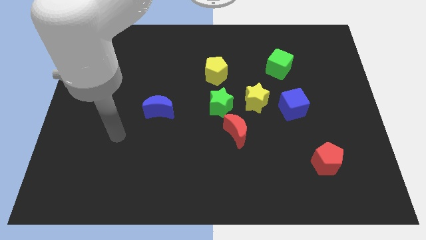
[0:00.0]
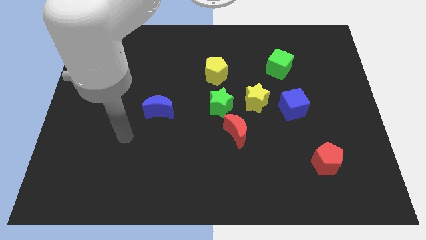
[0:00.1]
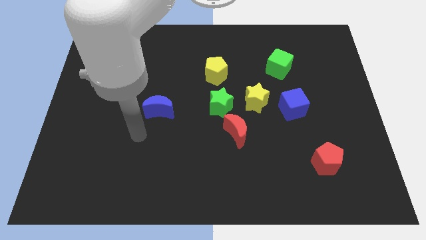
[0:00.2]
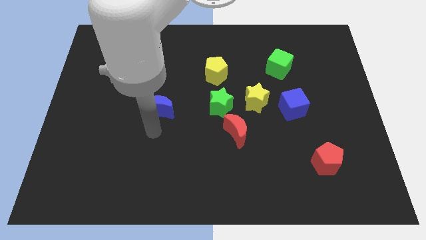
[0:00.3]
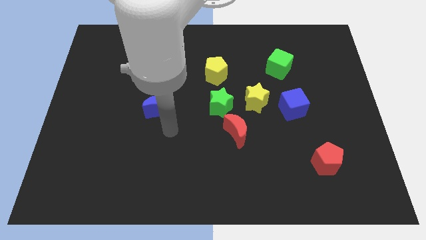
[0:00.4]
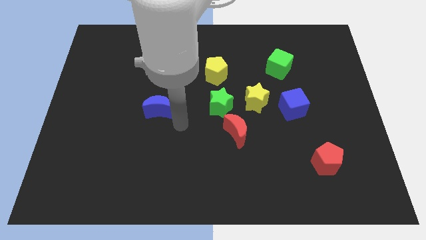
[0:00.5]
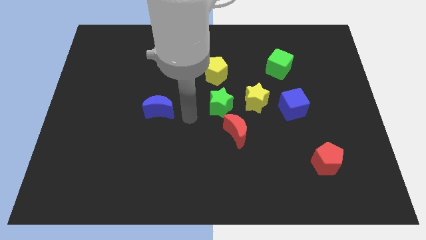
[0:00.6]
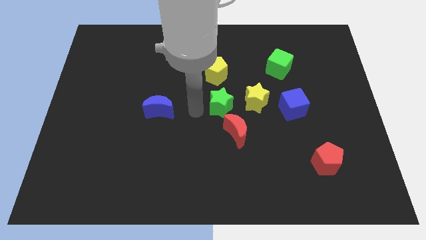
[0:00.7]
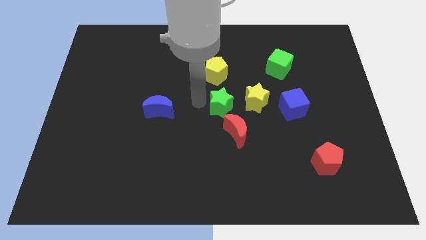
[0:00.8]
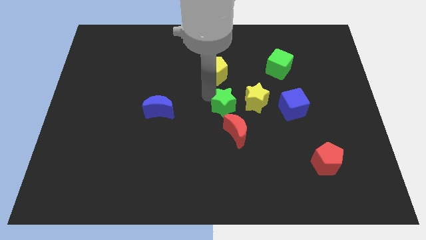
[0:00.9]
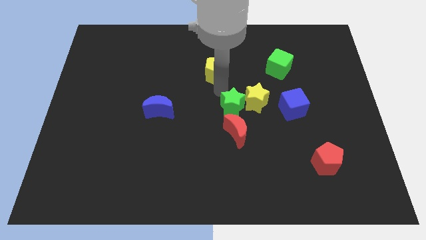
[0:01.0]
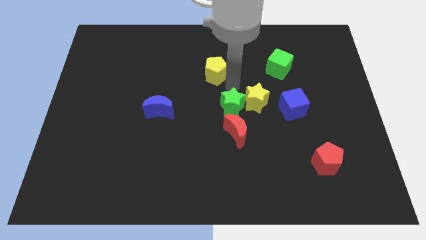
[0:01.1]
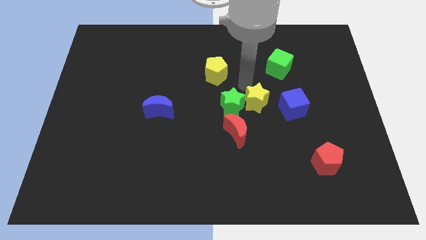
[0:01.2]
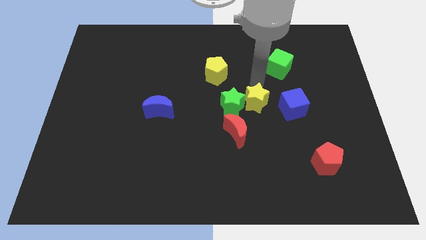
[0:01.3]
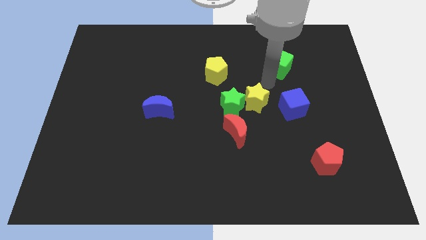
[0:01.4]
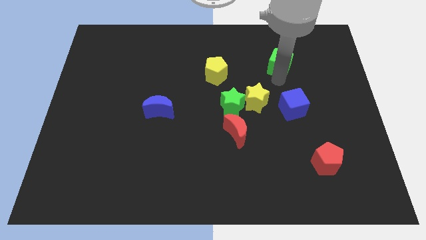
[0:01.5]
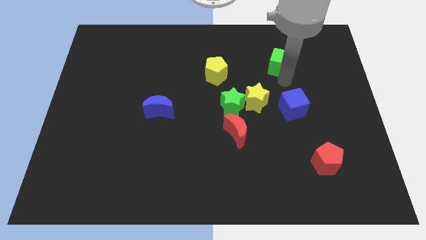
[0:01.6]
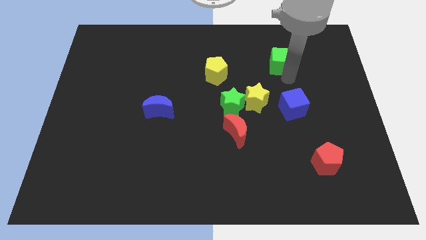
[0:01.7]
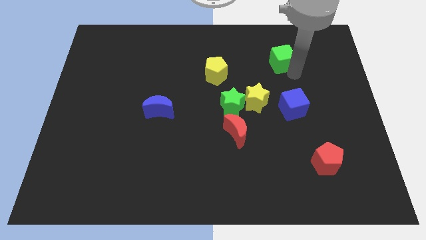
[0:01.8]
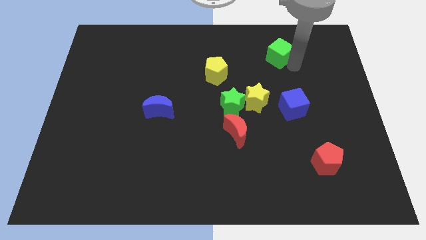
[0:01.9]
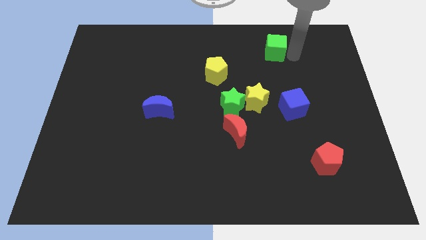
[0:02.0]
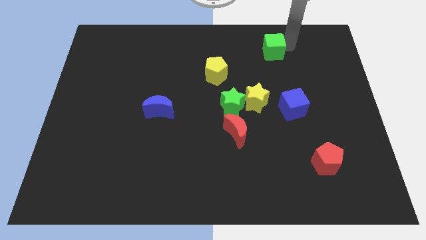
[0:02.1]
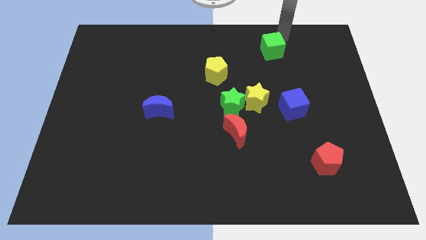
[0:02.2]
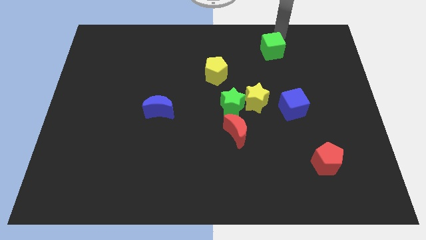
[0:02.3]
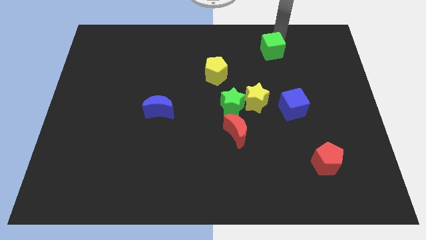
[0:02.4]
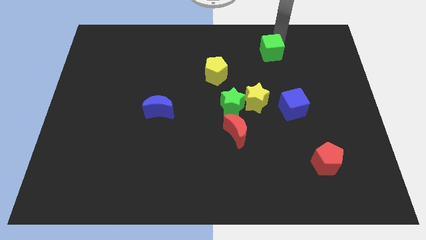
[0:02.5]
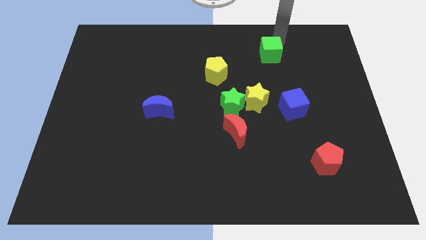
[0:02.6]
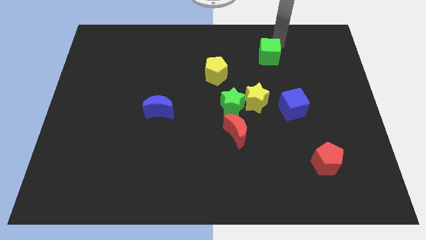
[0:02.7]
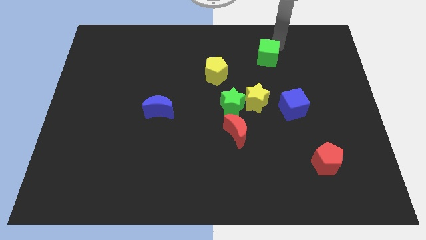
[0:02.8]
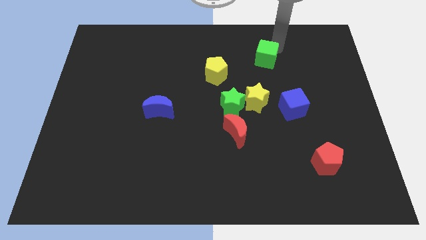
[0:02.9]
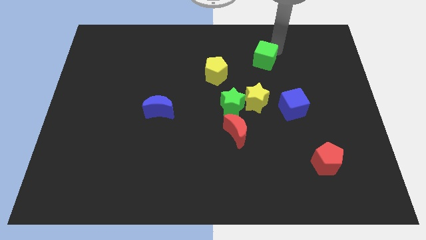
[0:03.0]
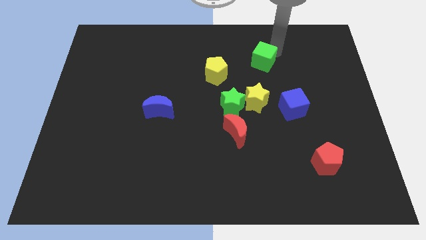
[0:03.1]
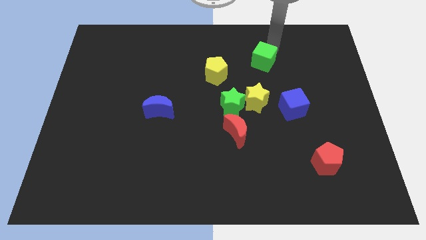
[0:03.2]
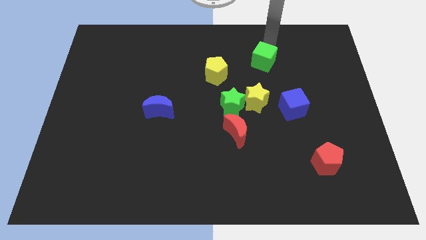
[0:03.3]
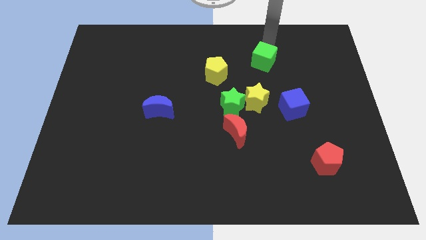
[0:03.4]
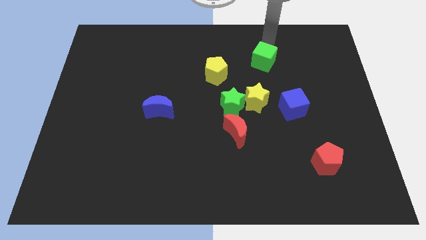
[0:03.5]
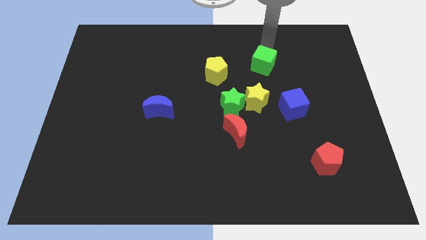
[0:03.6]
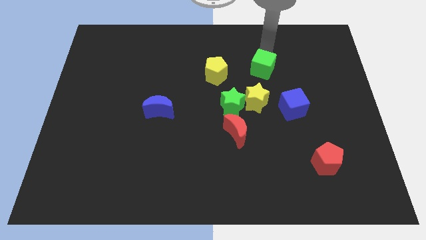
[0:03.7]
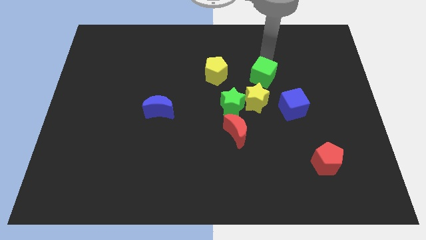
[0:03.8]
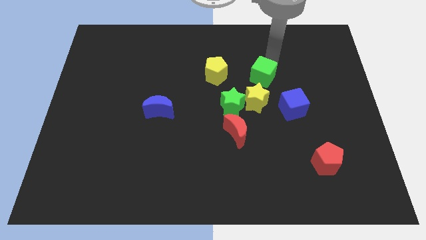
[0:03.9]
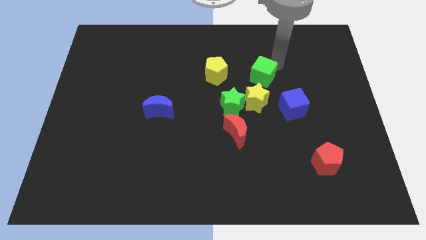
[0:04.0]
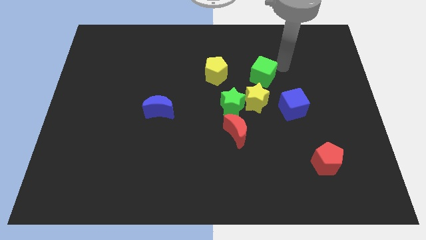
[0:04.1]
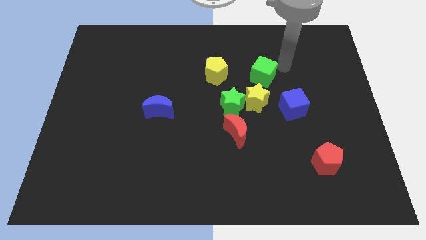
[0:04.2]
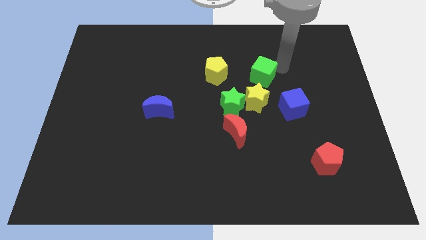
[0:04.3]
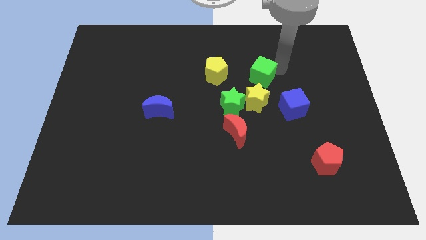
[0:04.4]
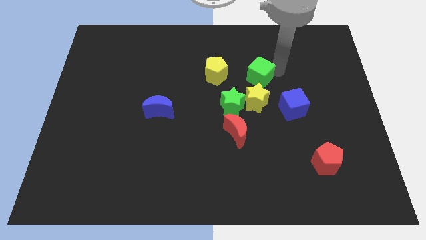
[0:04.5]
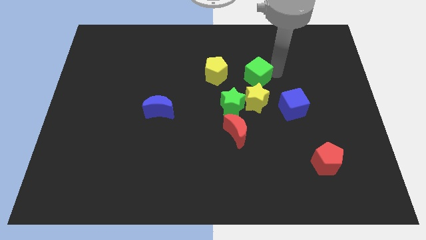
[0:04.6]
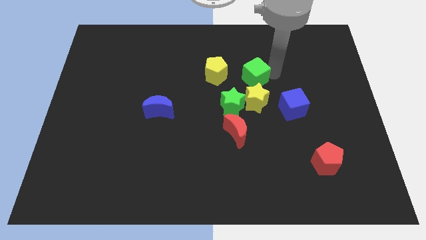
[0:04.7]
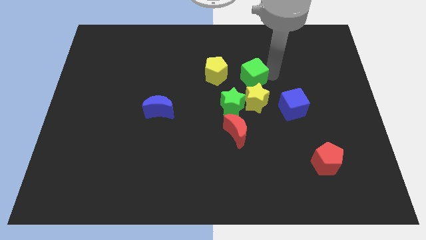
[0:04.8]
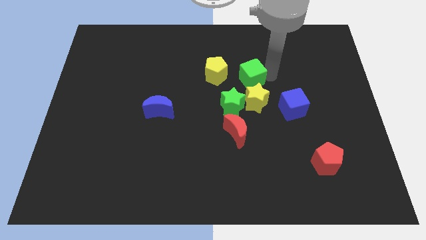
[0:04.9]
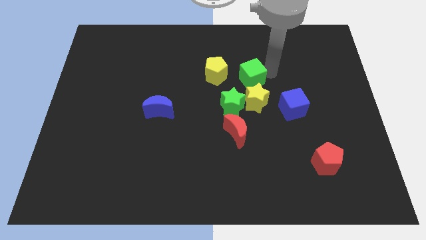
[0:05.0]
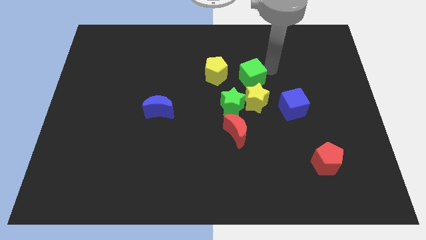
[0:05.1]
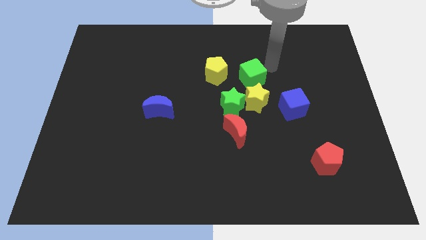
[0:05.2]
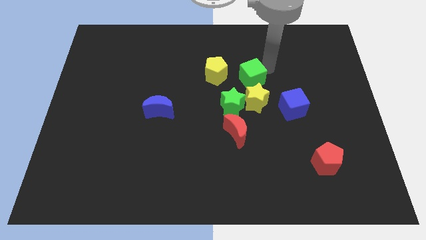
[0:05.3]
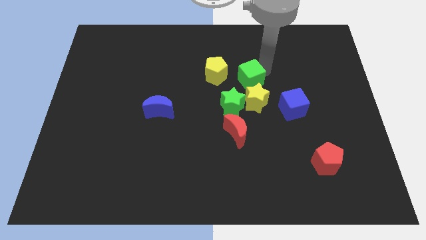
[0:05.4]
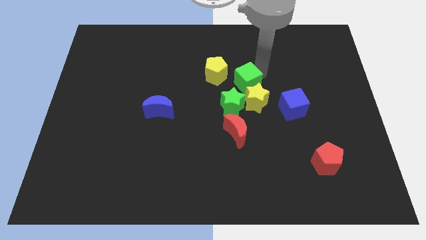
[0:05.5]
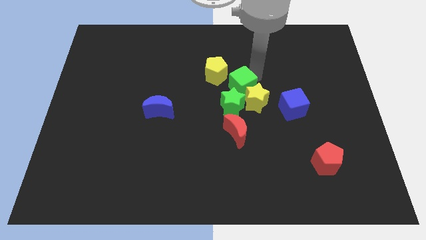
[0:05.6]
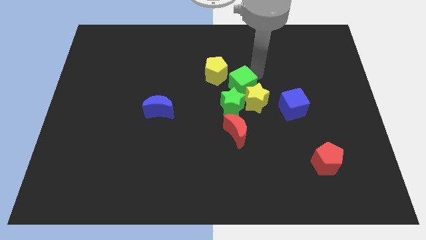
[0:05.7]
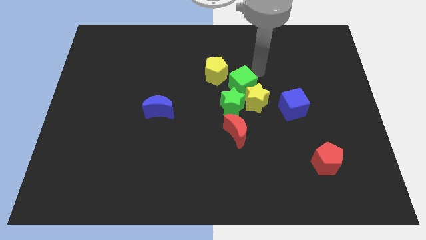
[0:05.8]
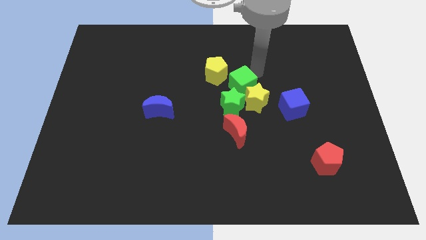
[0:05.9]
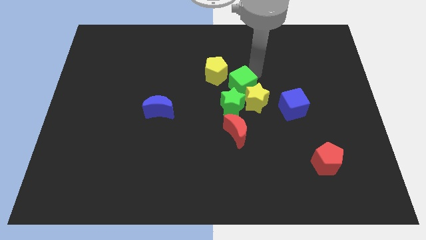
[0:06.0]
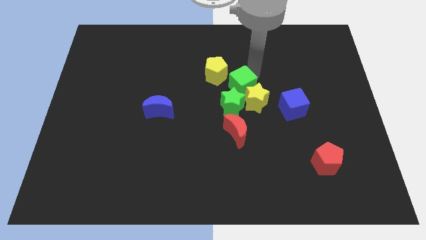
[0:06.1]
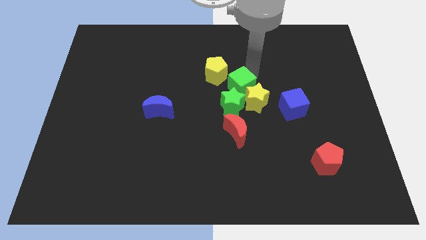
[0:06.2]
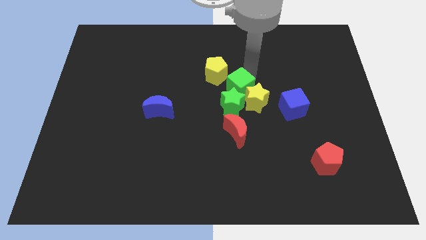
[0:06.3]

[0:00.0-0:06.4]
slide the green cube to the green star

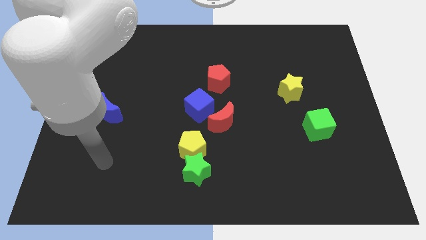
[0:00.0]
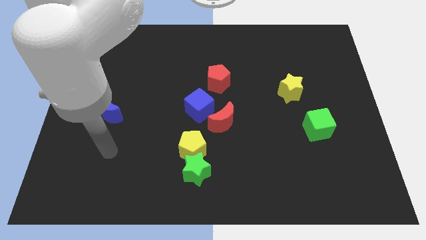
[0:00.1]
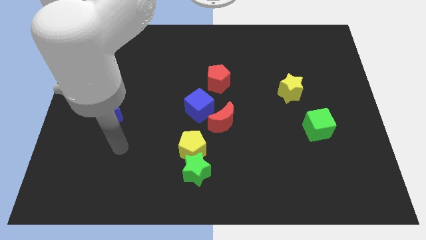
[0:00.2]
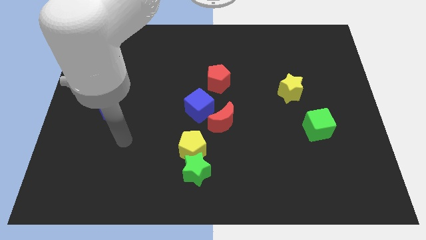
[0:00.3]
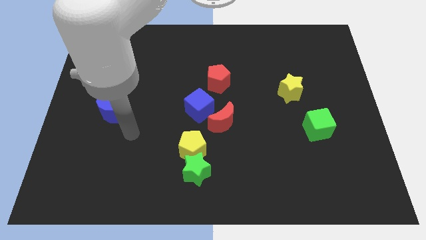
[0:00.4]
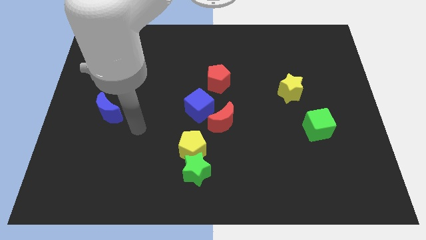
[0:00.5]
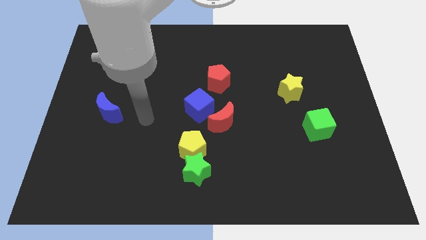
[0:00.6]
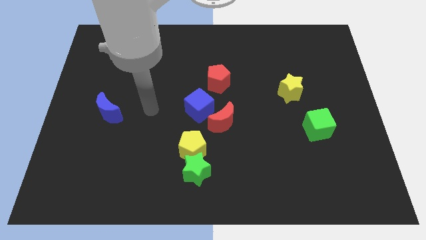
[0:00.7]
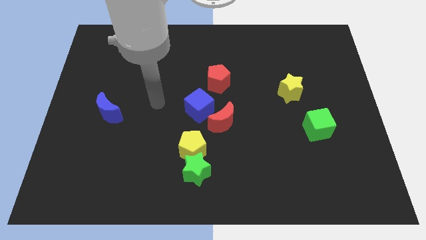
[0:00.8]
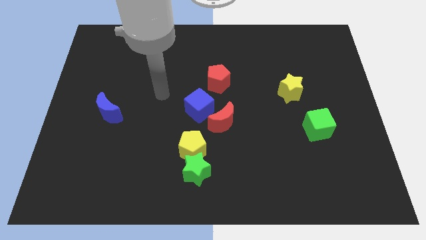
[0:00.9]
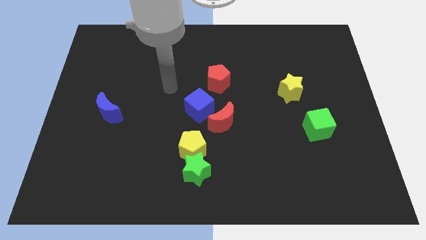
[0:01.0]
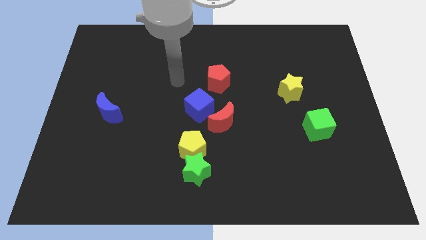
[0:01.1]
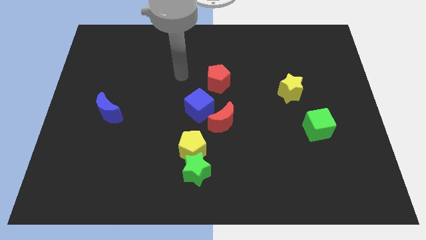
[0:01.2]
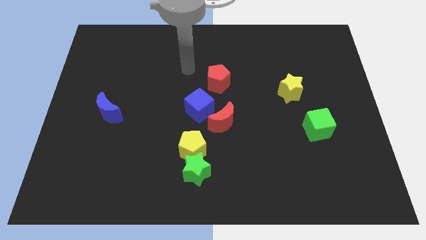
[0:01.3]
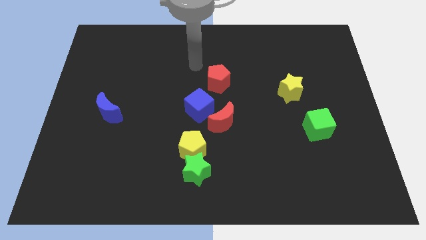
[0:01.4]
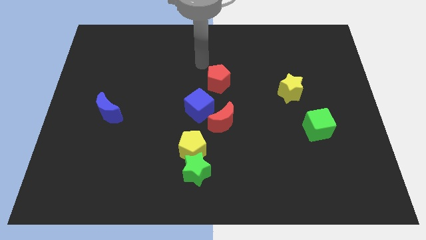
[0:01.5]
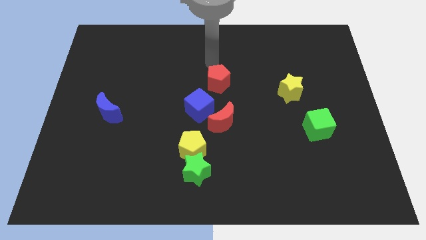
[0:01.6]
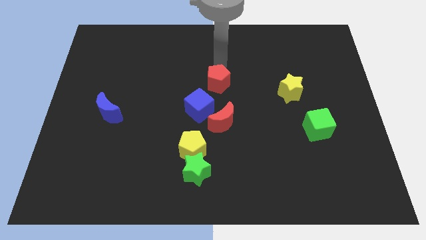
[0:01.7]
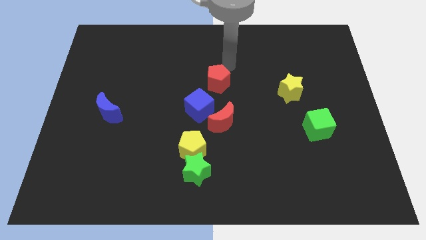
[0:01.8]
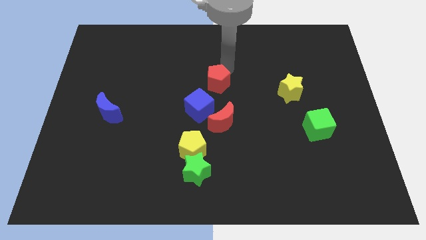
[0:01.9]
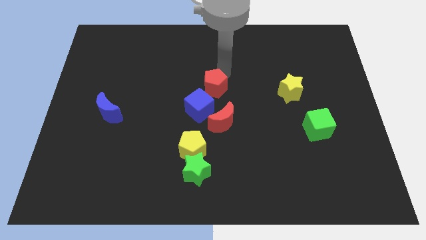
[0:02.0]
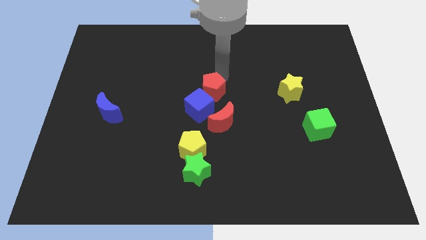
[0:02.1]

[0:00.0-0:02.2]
push the red pentagon to the blue cube
